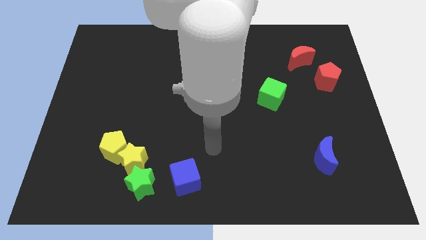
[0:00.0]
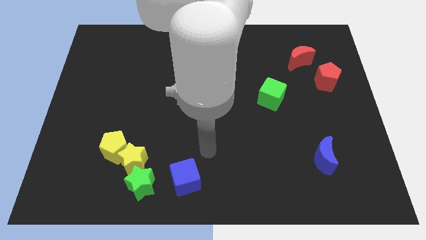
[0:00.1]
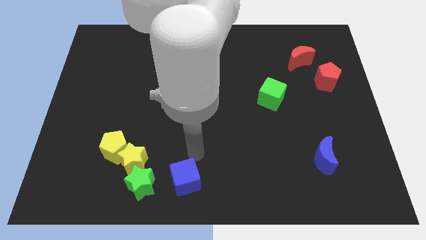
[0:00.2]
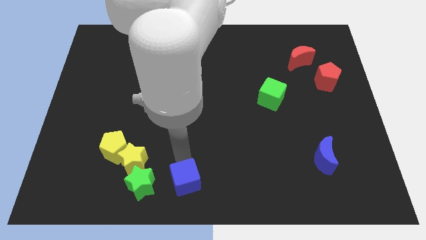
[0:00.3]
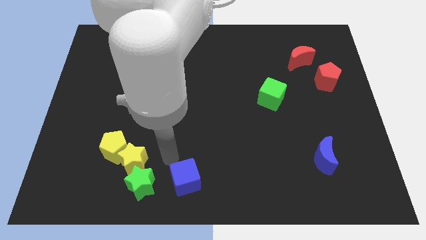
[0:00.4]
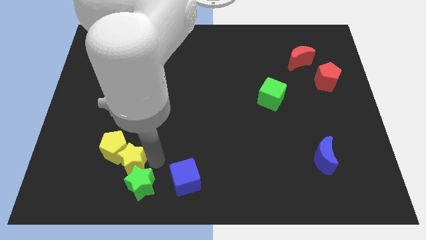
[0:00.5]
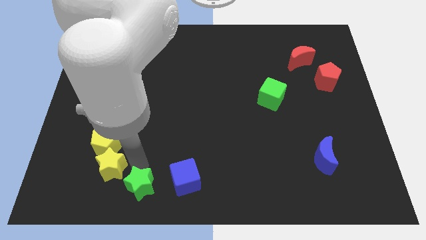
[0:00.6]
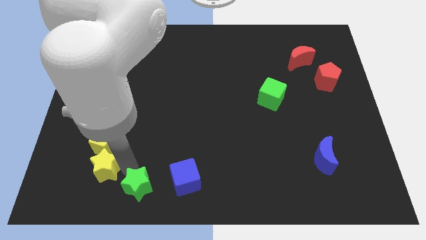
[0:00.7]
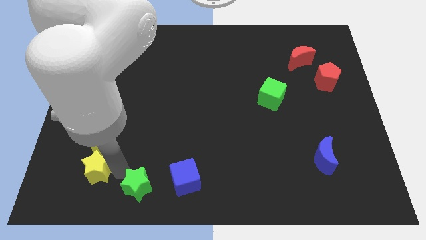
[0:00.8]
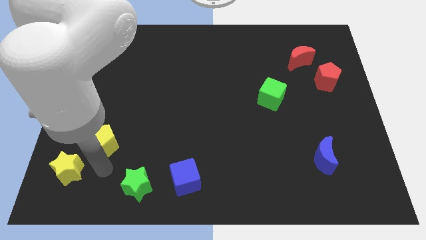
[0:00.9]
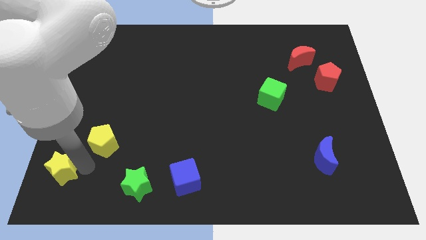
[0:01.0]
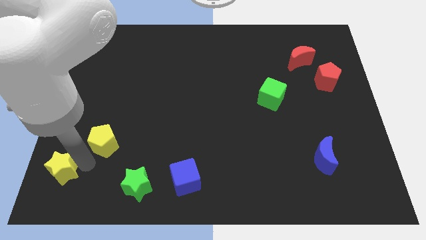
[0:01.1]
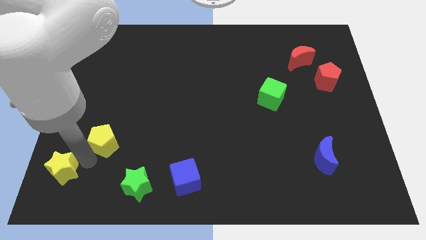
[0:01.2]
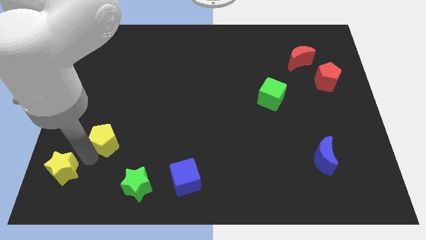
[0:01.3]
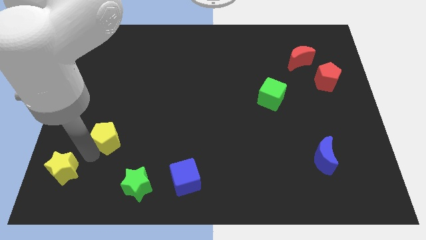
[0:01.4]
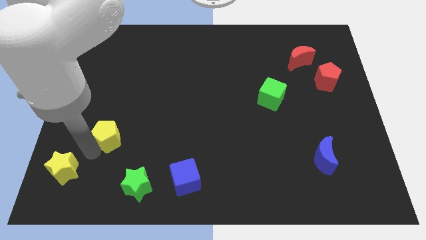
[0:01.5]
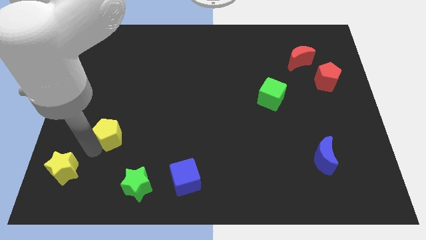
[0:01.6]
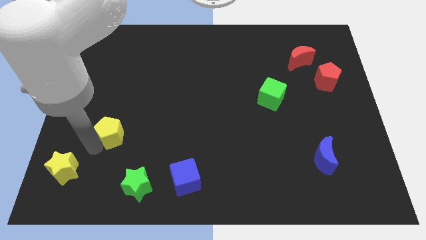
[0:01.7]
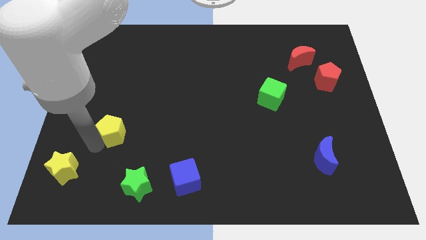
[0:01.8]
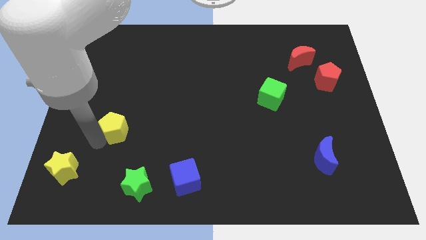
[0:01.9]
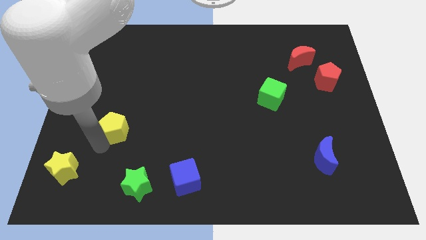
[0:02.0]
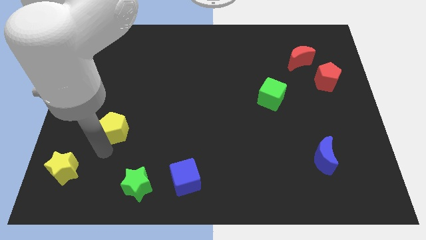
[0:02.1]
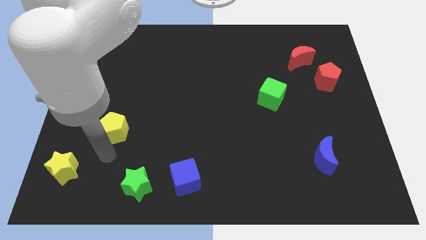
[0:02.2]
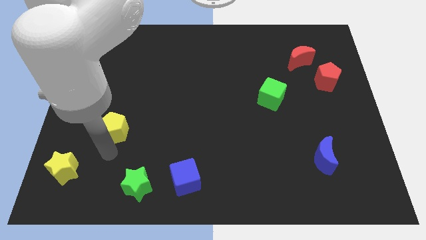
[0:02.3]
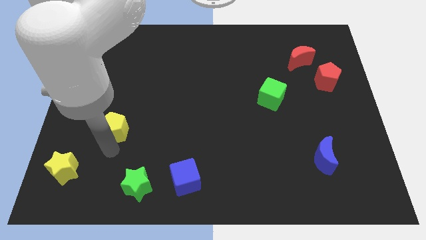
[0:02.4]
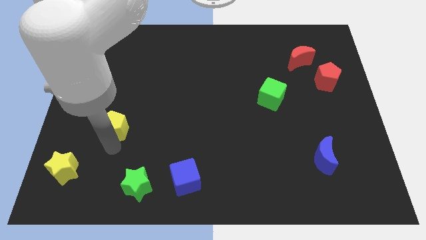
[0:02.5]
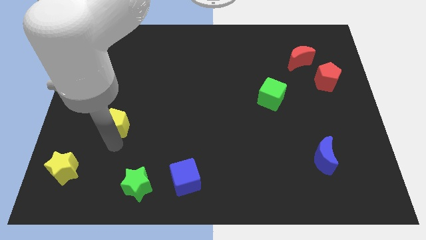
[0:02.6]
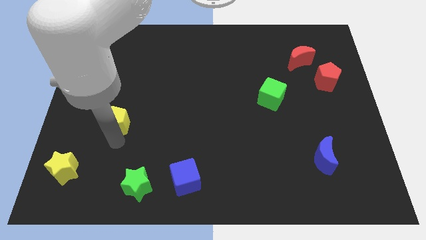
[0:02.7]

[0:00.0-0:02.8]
slightly push the yellow pentagon upwards

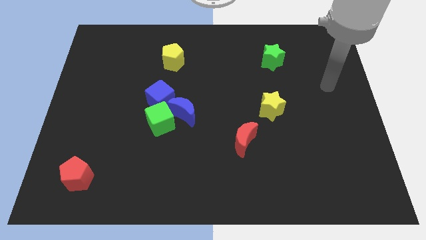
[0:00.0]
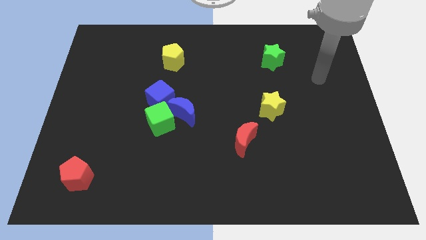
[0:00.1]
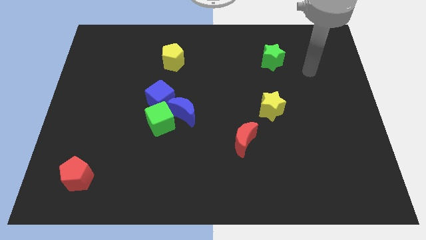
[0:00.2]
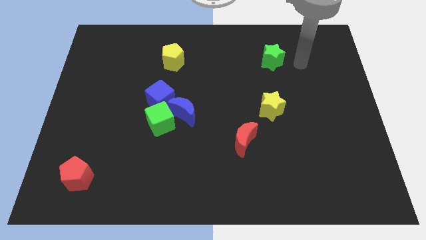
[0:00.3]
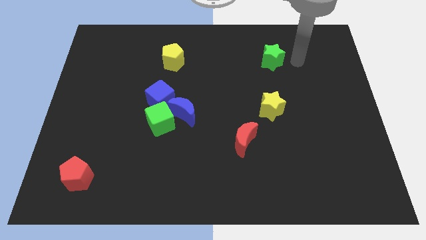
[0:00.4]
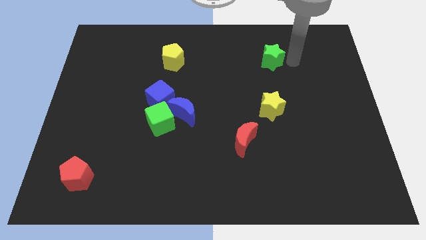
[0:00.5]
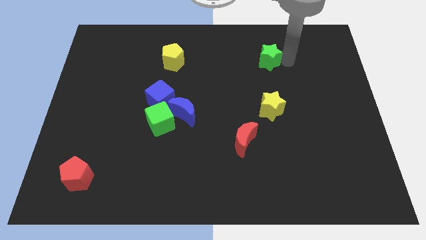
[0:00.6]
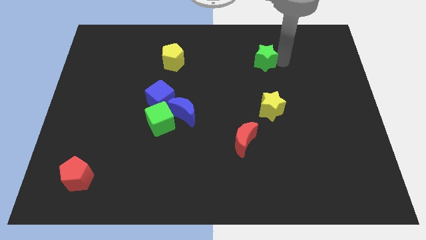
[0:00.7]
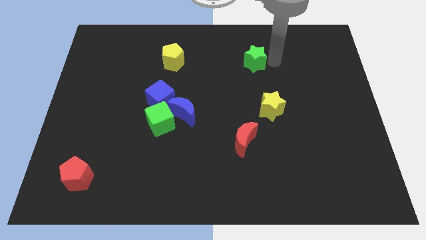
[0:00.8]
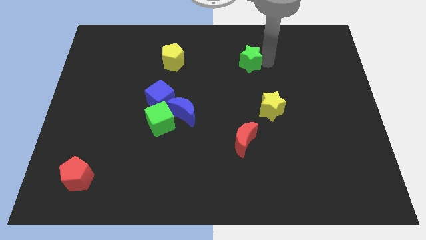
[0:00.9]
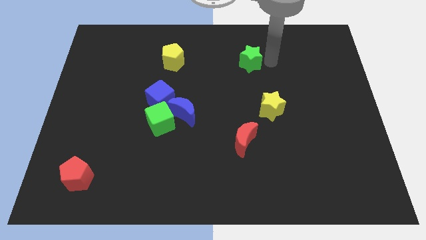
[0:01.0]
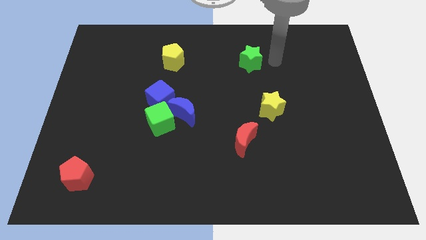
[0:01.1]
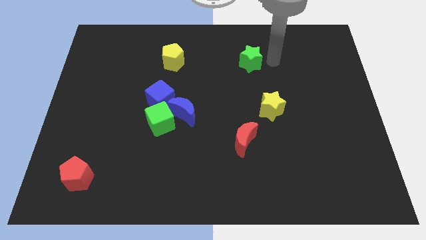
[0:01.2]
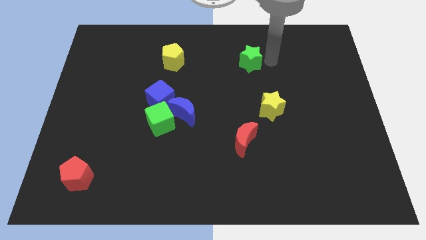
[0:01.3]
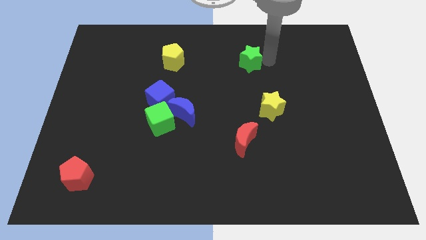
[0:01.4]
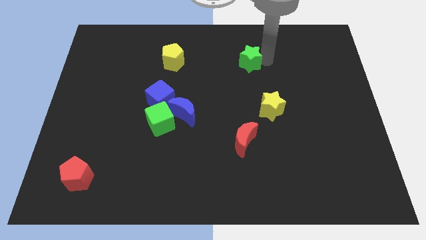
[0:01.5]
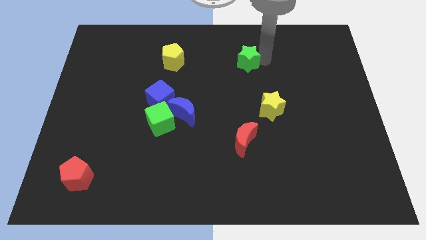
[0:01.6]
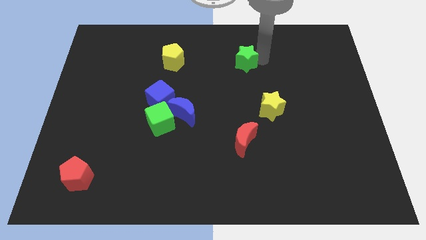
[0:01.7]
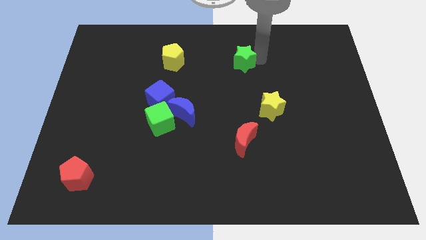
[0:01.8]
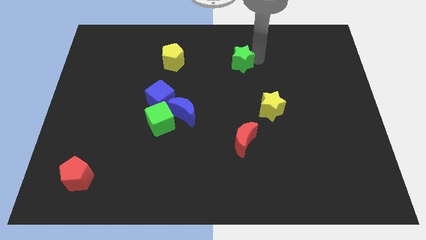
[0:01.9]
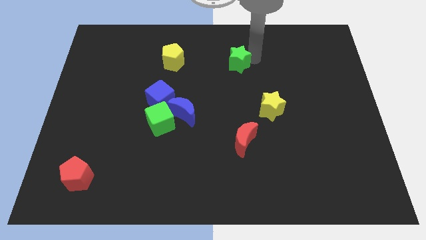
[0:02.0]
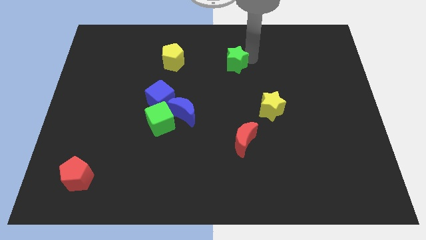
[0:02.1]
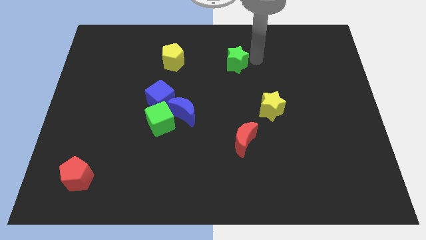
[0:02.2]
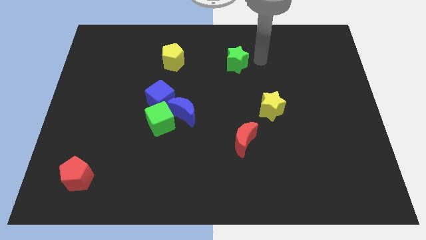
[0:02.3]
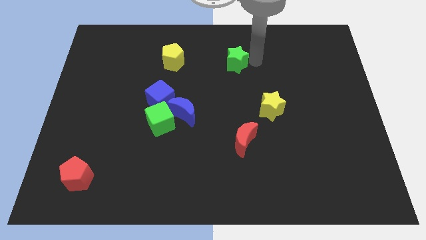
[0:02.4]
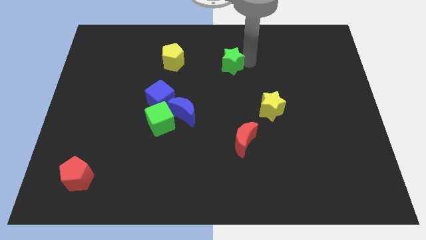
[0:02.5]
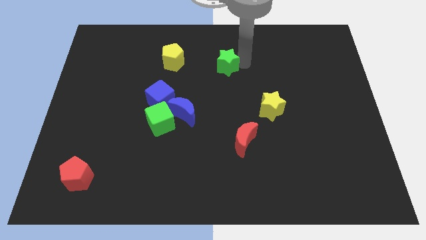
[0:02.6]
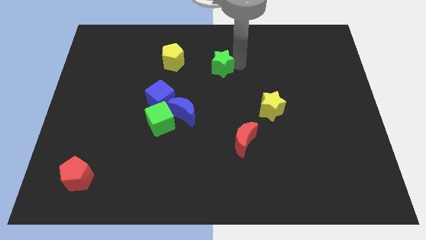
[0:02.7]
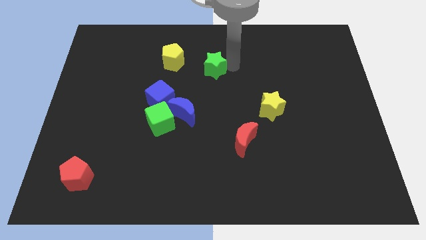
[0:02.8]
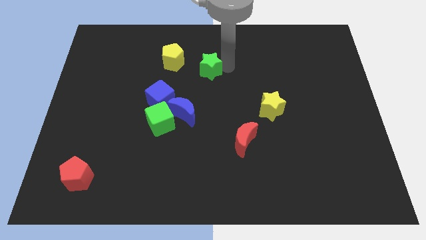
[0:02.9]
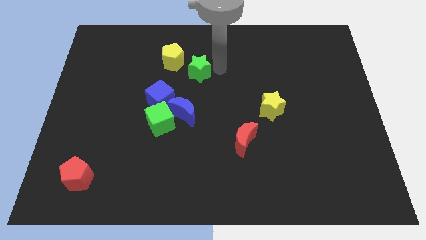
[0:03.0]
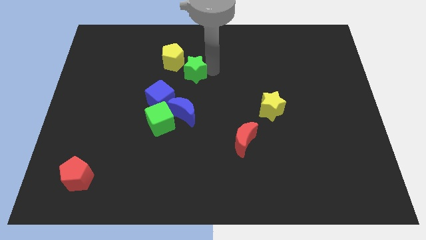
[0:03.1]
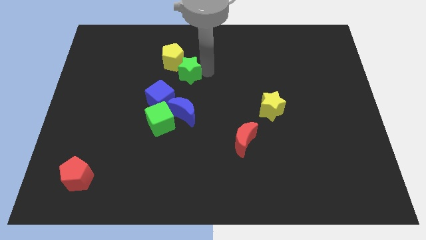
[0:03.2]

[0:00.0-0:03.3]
move the green star to the left

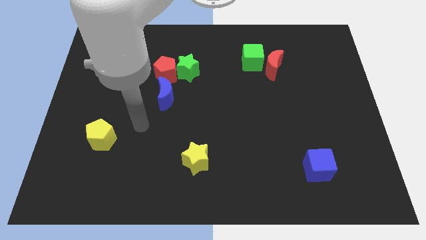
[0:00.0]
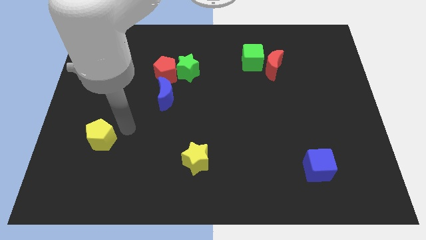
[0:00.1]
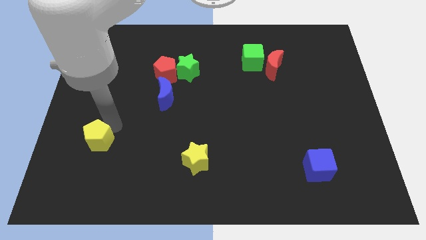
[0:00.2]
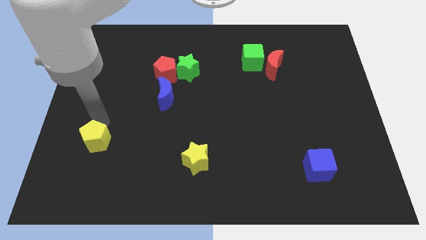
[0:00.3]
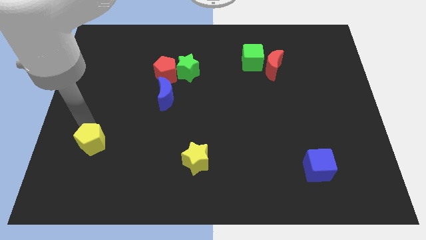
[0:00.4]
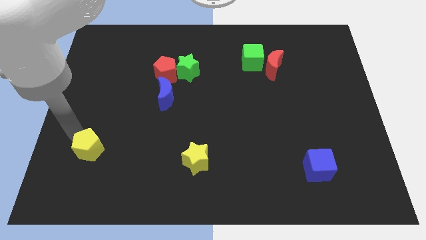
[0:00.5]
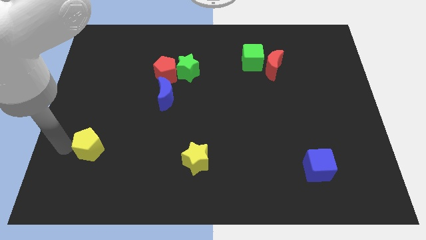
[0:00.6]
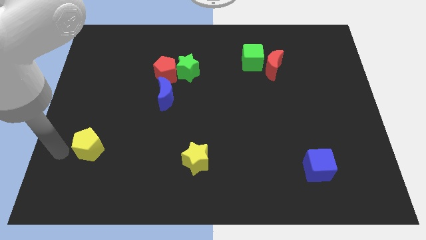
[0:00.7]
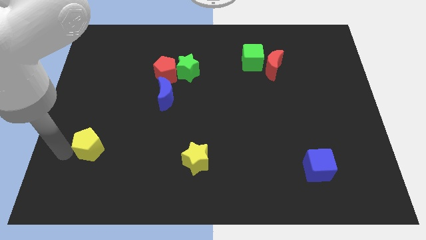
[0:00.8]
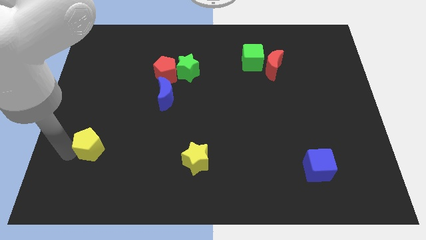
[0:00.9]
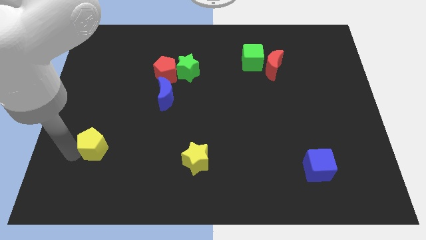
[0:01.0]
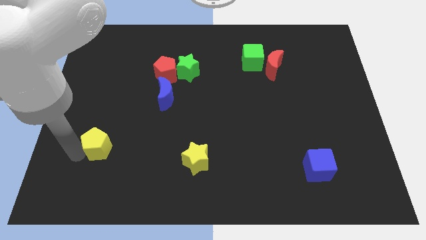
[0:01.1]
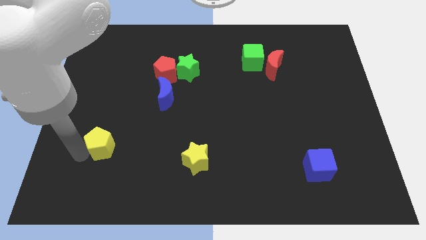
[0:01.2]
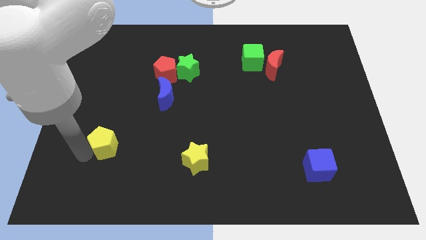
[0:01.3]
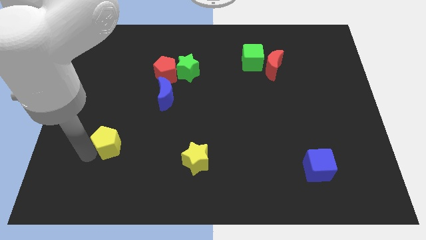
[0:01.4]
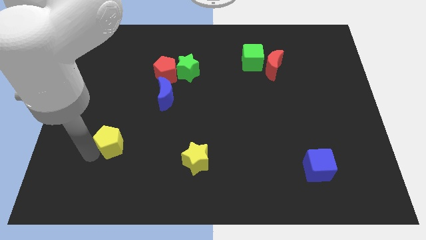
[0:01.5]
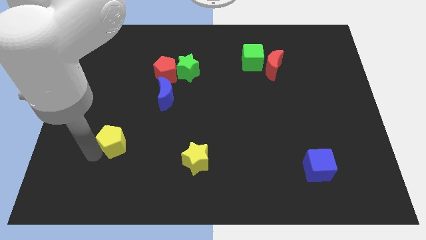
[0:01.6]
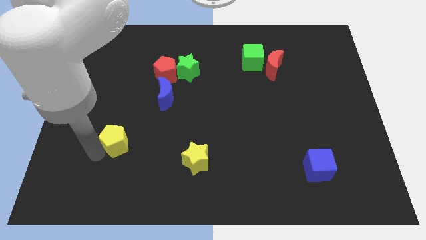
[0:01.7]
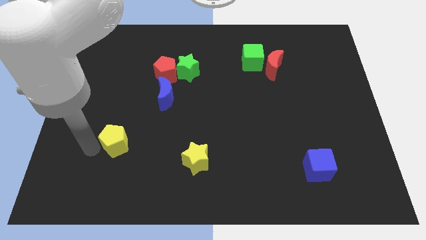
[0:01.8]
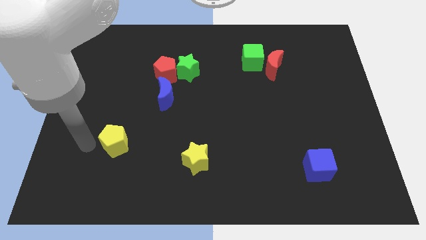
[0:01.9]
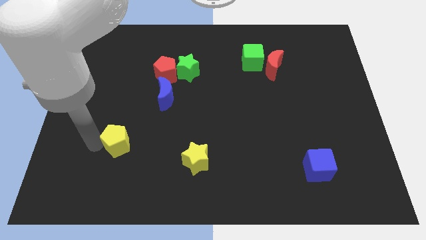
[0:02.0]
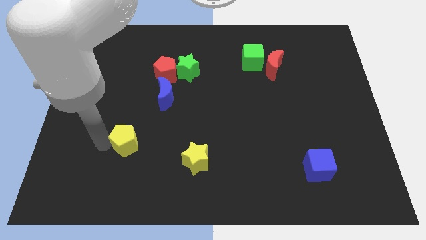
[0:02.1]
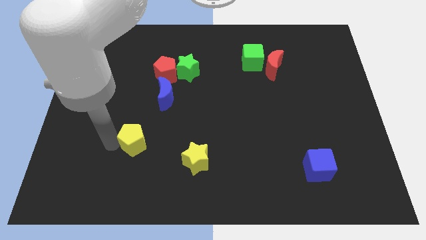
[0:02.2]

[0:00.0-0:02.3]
push the yellow pentagon to the right a bit
